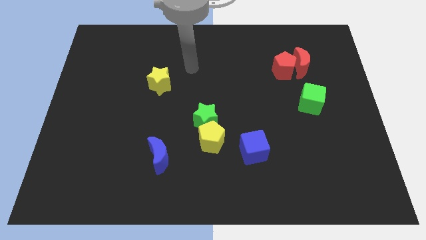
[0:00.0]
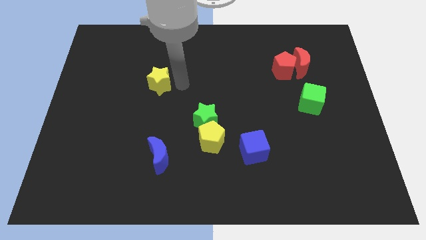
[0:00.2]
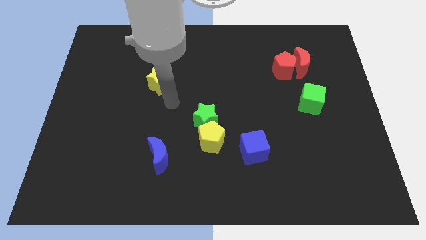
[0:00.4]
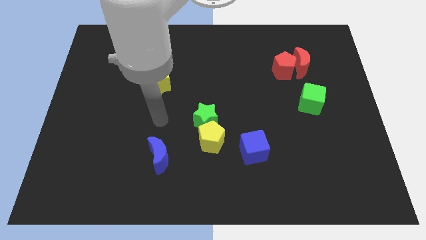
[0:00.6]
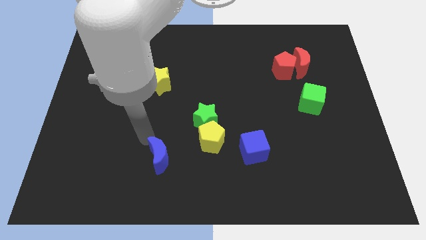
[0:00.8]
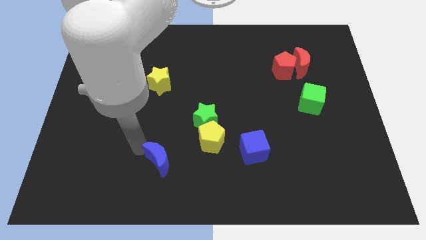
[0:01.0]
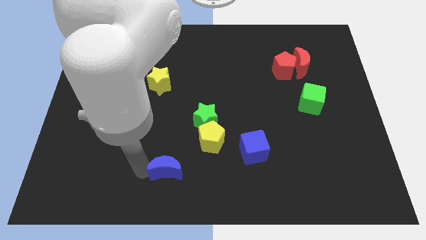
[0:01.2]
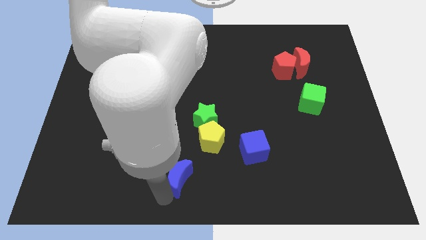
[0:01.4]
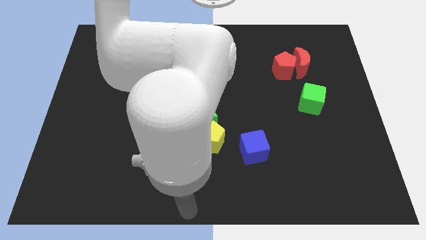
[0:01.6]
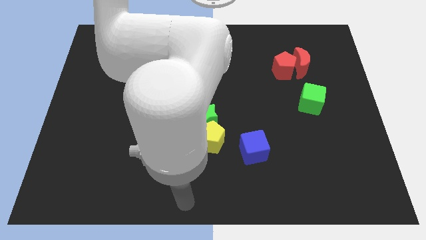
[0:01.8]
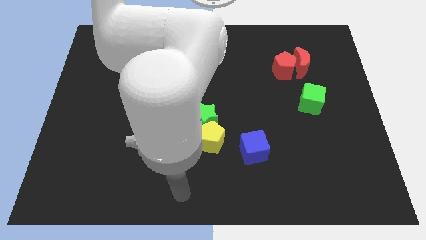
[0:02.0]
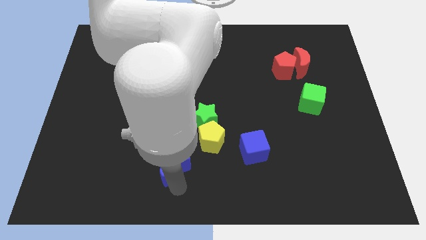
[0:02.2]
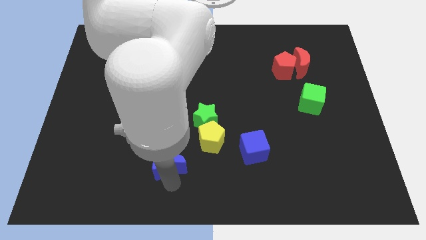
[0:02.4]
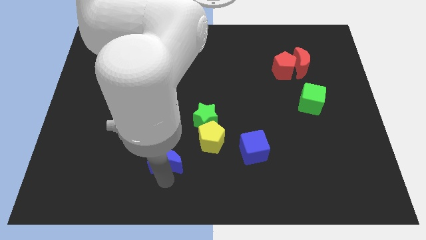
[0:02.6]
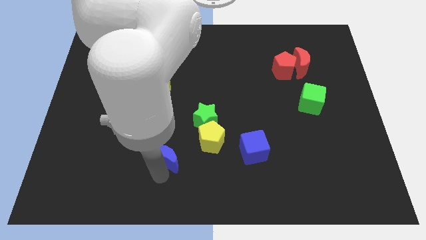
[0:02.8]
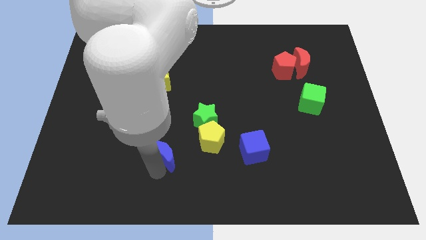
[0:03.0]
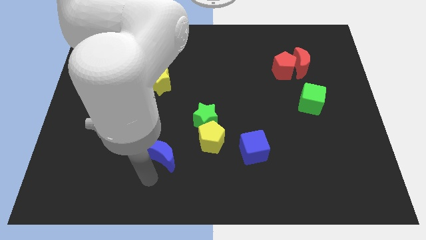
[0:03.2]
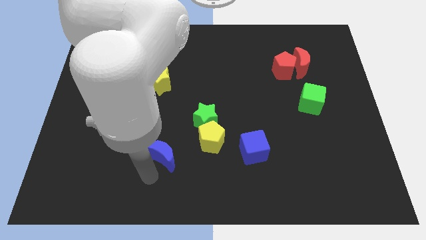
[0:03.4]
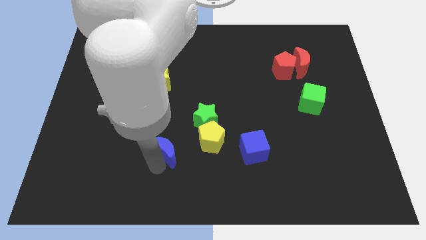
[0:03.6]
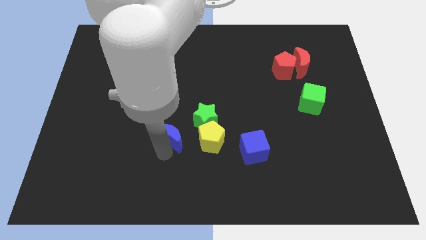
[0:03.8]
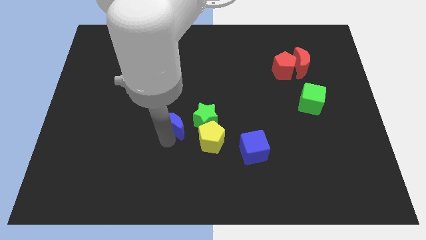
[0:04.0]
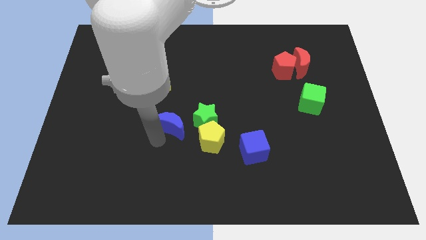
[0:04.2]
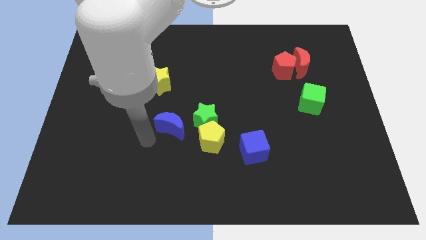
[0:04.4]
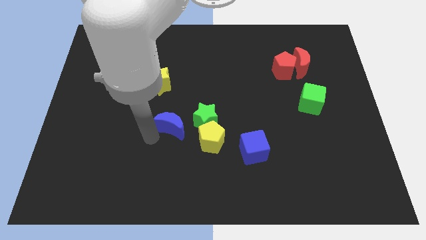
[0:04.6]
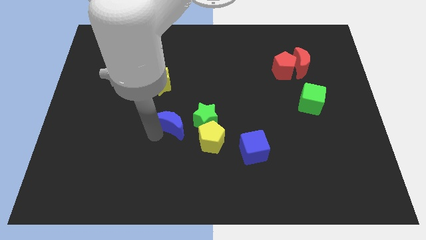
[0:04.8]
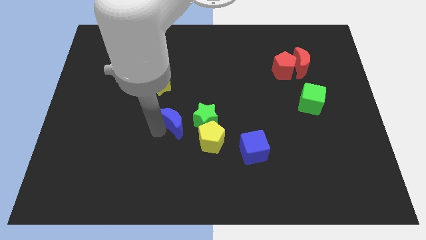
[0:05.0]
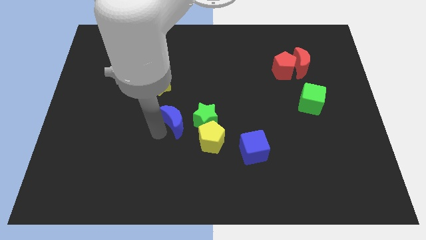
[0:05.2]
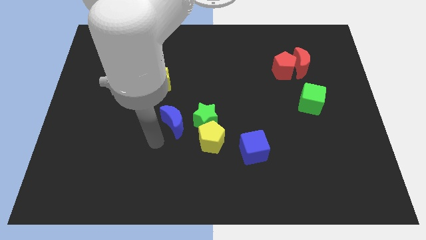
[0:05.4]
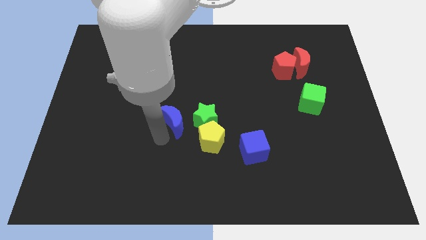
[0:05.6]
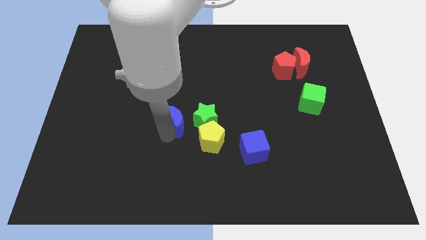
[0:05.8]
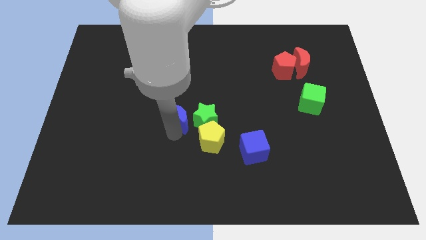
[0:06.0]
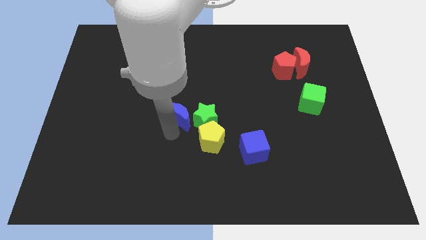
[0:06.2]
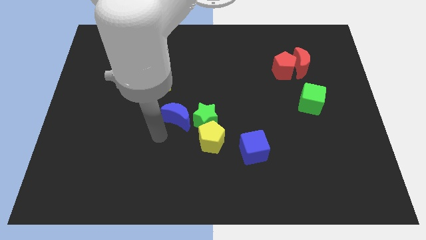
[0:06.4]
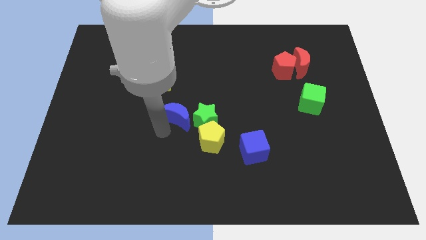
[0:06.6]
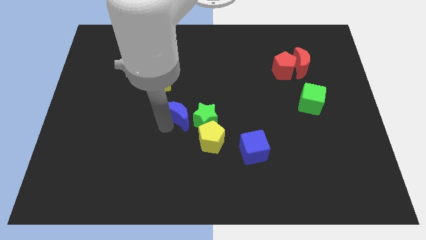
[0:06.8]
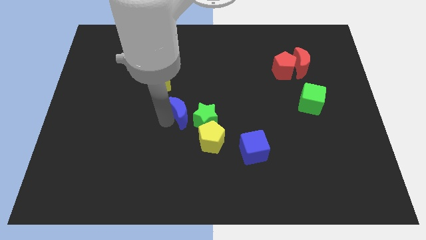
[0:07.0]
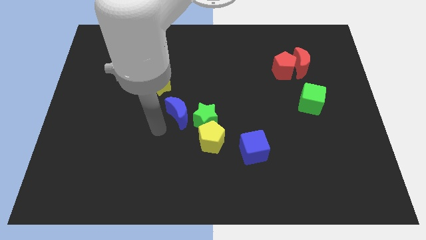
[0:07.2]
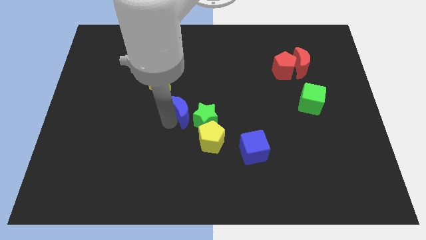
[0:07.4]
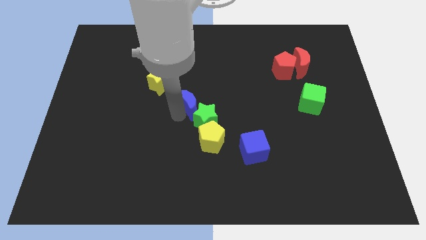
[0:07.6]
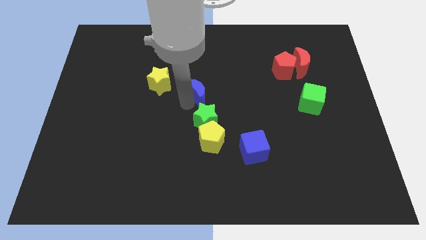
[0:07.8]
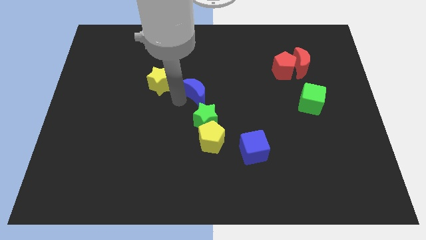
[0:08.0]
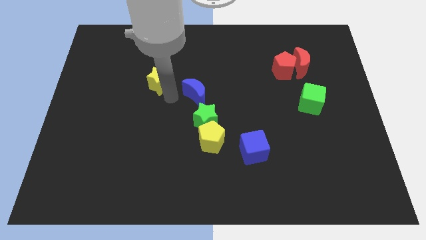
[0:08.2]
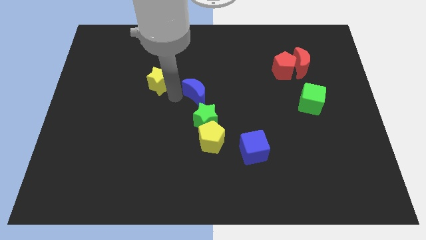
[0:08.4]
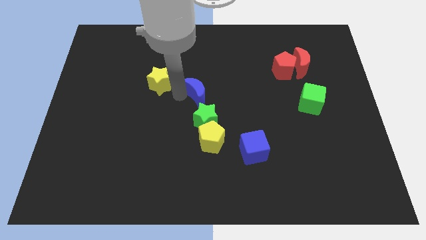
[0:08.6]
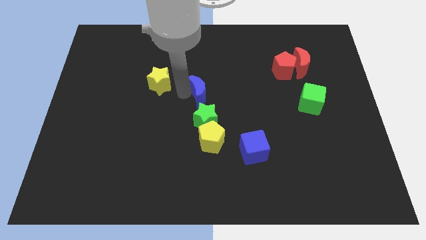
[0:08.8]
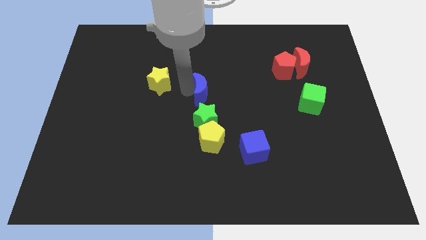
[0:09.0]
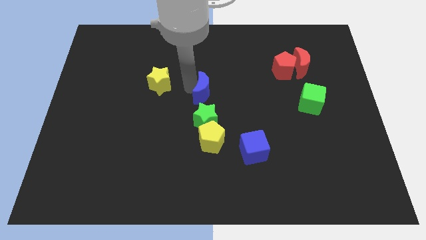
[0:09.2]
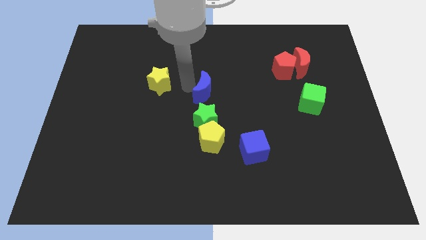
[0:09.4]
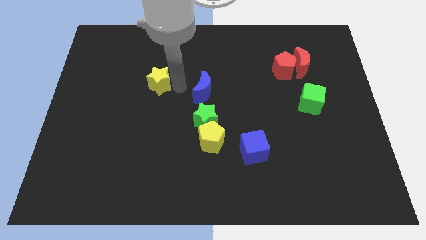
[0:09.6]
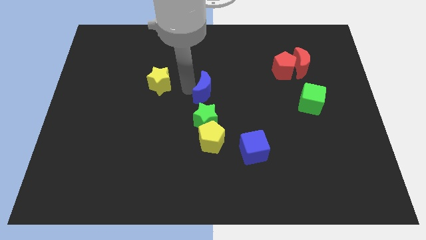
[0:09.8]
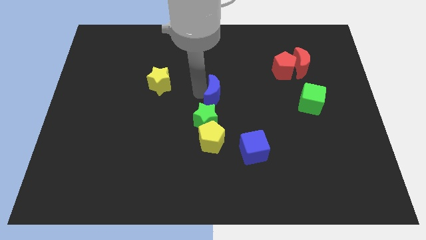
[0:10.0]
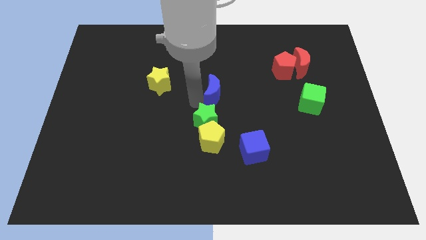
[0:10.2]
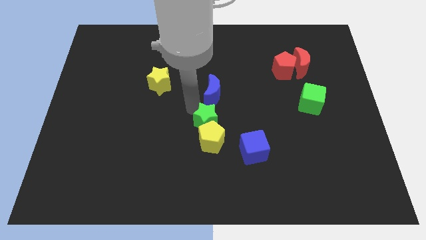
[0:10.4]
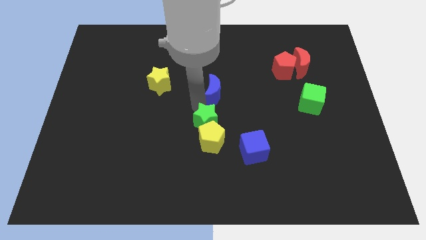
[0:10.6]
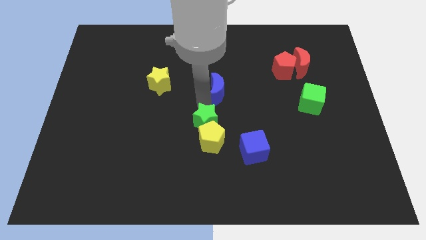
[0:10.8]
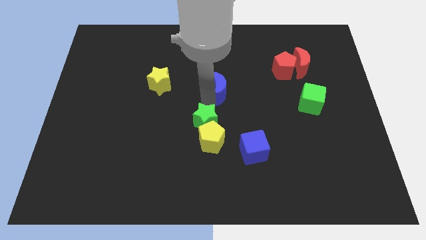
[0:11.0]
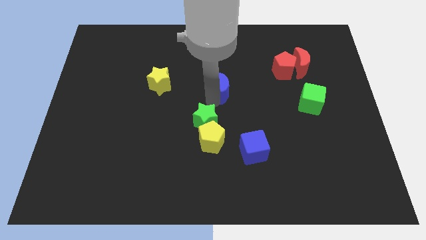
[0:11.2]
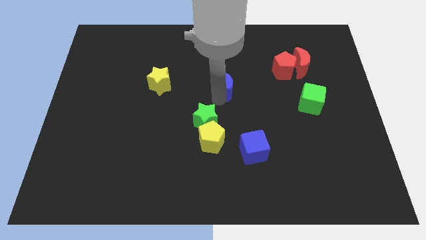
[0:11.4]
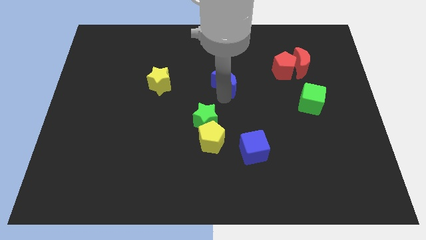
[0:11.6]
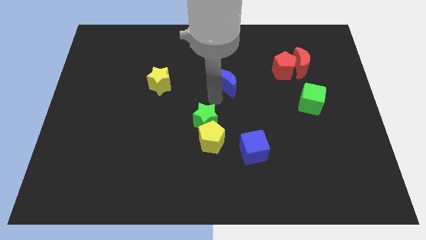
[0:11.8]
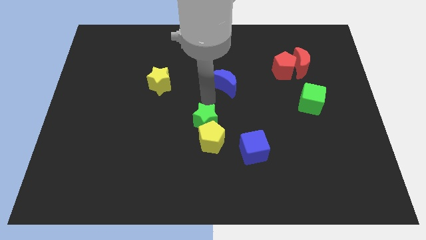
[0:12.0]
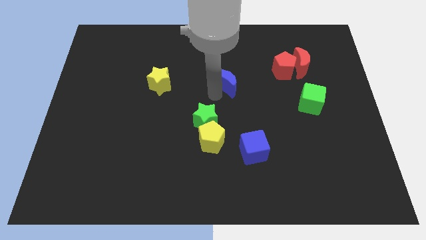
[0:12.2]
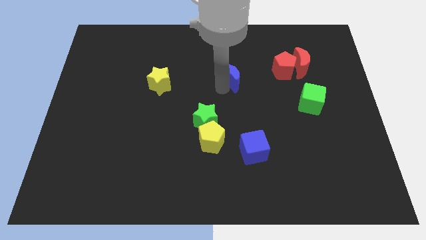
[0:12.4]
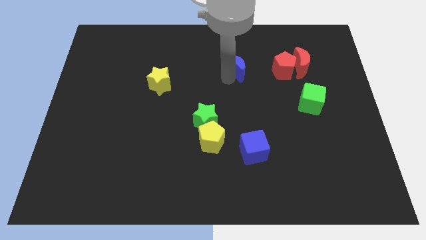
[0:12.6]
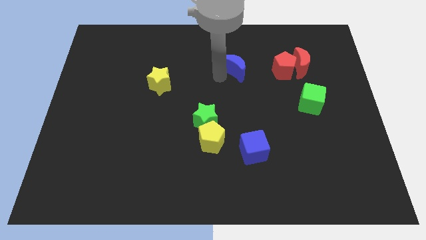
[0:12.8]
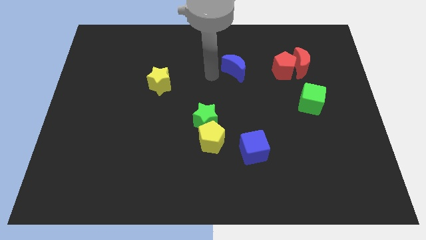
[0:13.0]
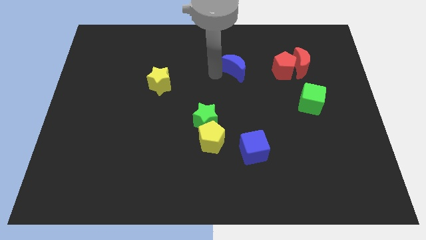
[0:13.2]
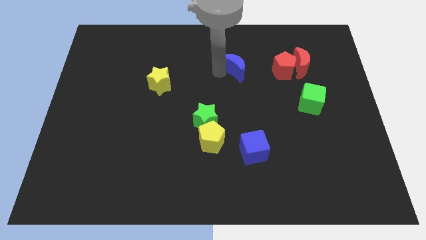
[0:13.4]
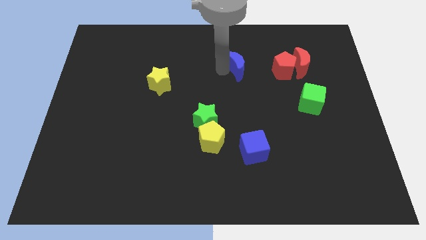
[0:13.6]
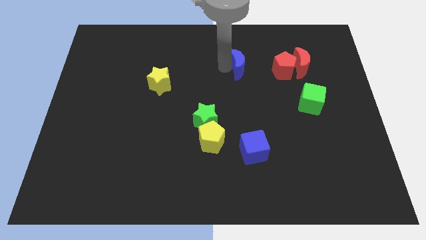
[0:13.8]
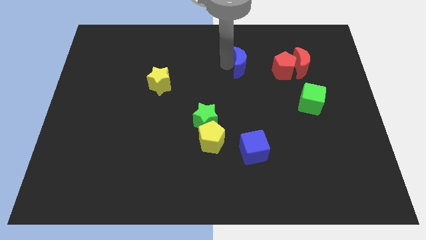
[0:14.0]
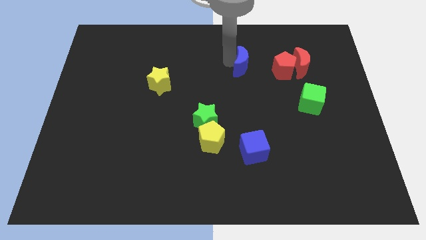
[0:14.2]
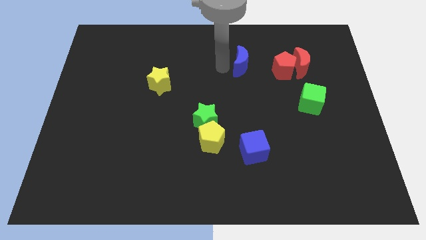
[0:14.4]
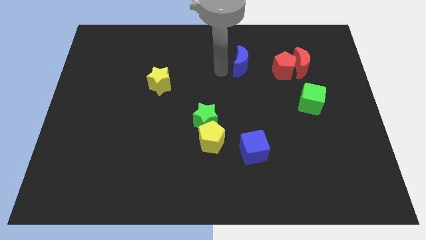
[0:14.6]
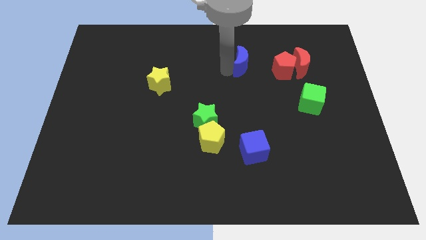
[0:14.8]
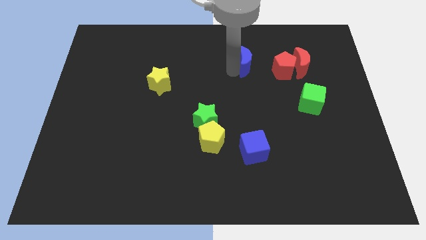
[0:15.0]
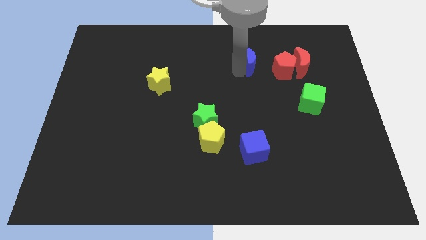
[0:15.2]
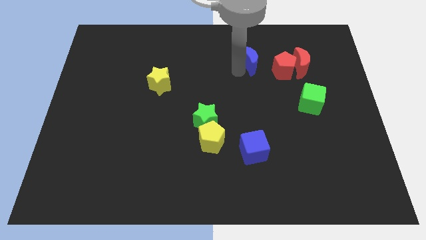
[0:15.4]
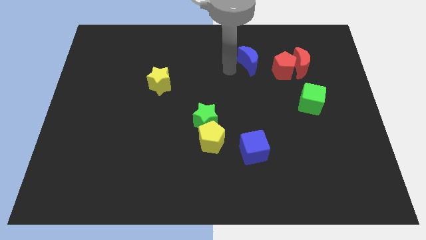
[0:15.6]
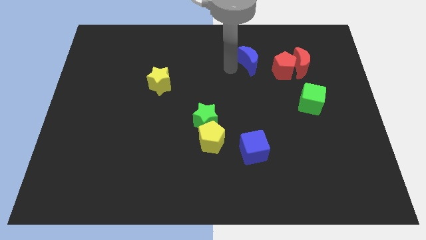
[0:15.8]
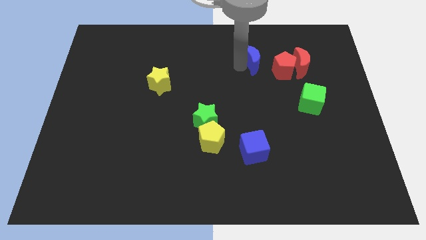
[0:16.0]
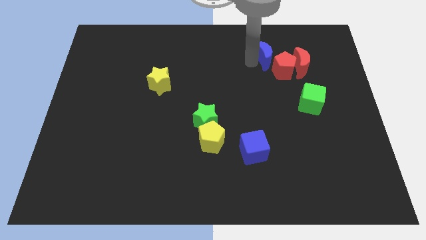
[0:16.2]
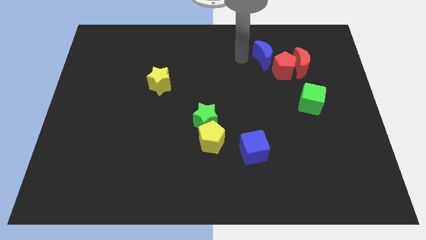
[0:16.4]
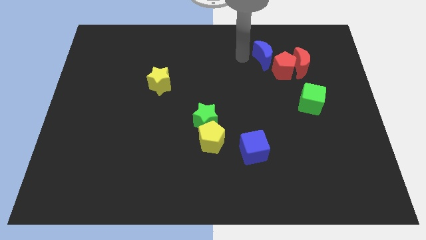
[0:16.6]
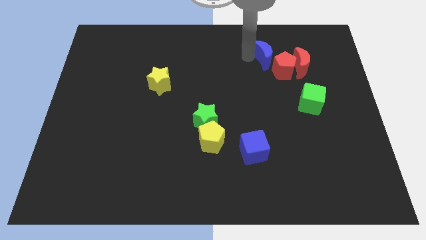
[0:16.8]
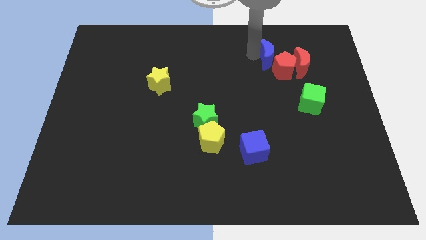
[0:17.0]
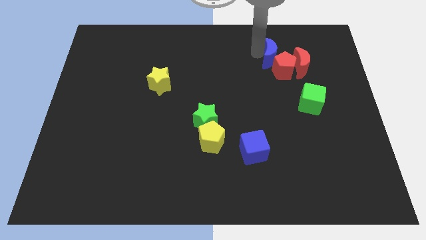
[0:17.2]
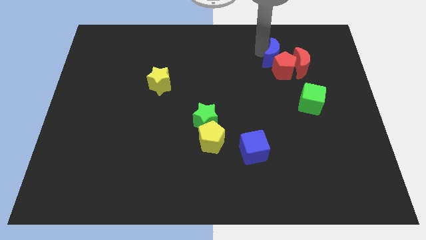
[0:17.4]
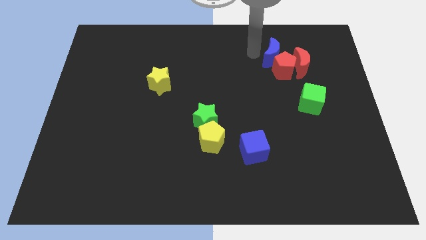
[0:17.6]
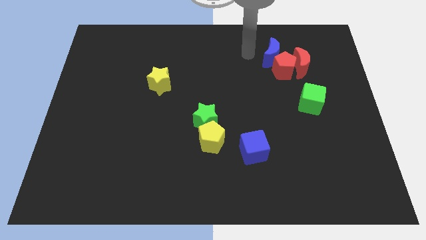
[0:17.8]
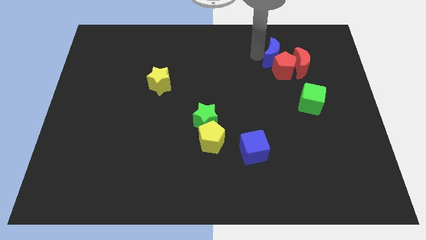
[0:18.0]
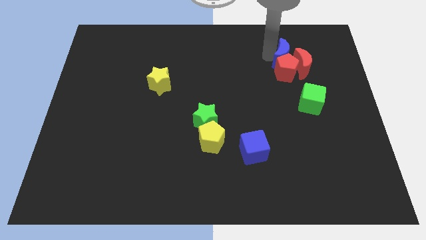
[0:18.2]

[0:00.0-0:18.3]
move the blue moon towards the red moon
